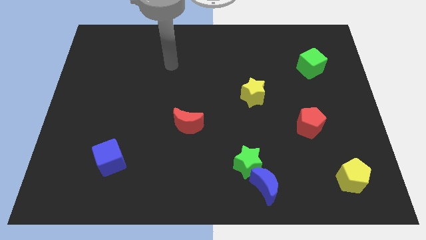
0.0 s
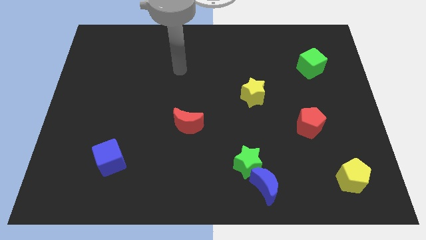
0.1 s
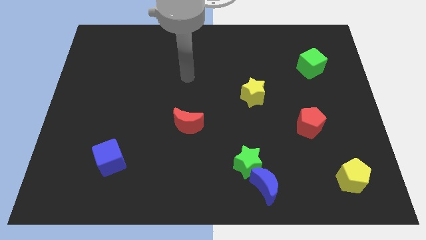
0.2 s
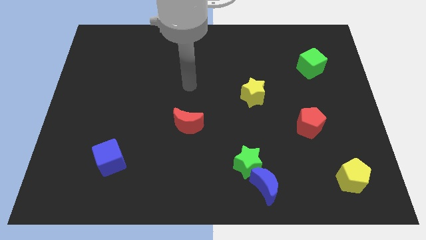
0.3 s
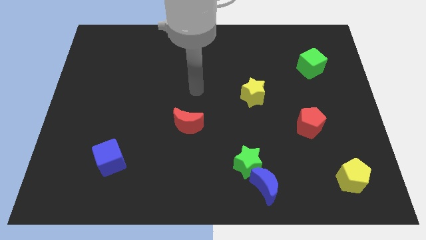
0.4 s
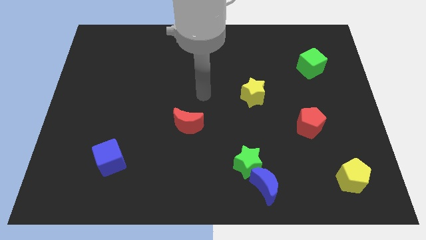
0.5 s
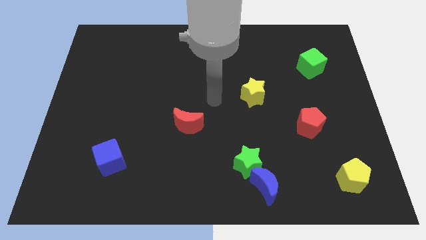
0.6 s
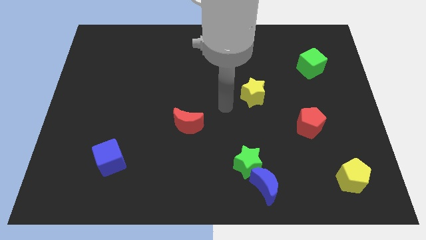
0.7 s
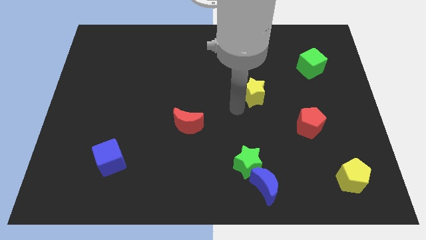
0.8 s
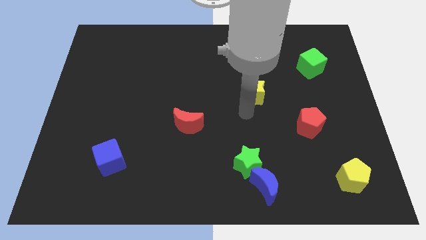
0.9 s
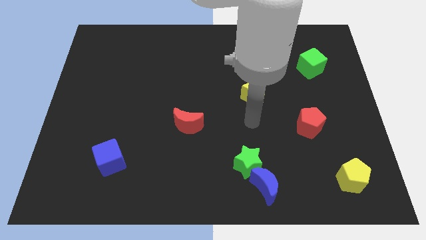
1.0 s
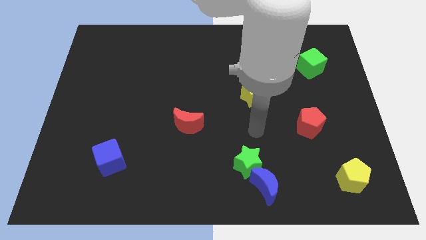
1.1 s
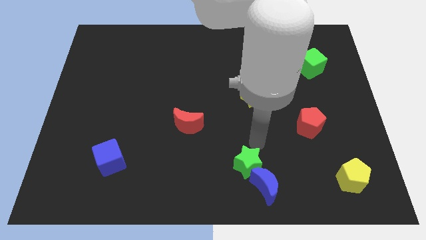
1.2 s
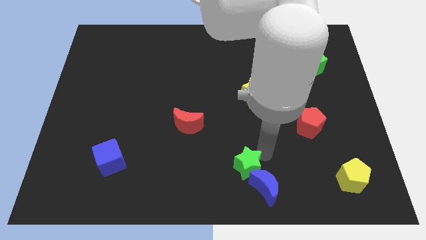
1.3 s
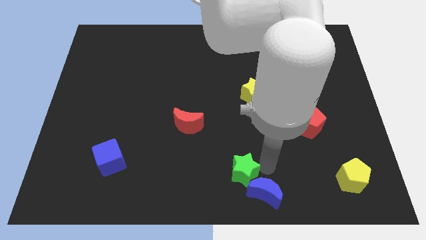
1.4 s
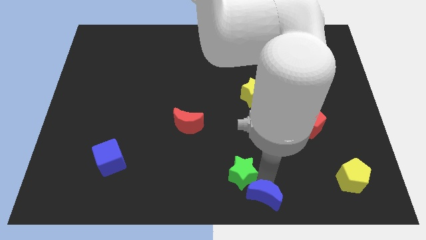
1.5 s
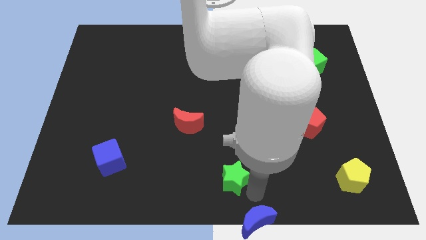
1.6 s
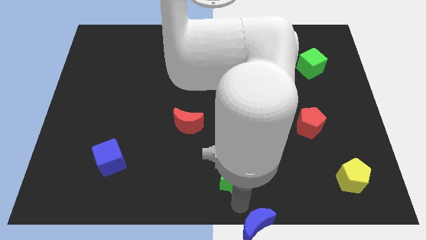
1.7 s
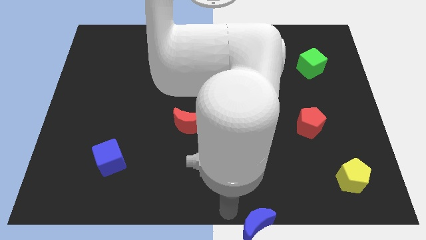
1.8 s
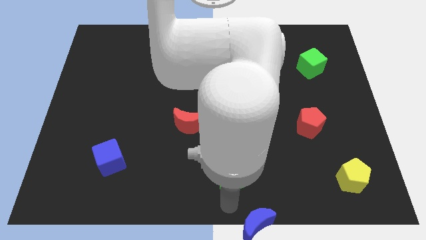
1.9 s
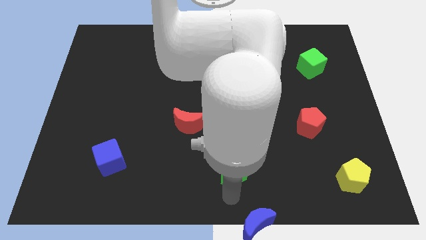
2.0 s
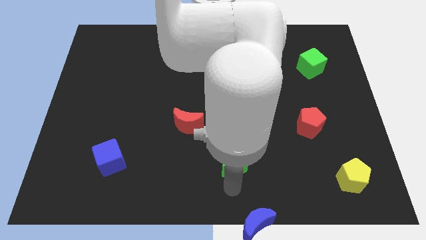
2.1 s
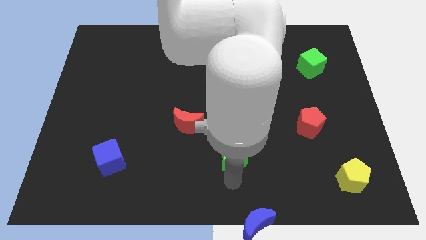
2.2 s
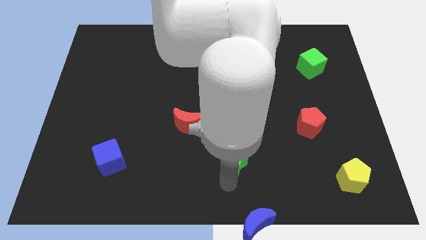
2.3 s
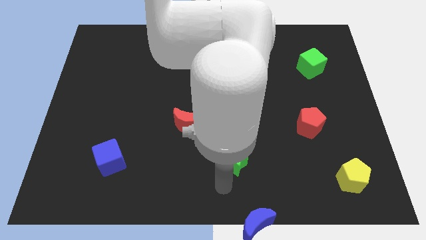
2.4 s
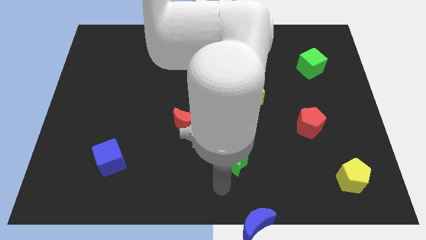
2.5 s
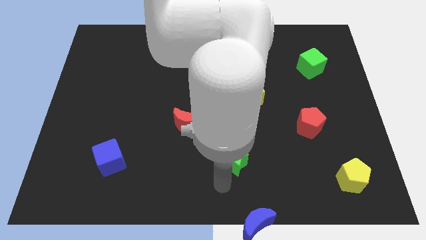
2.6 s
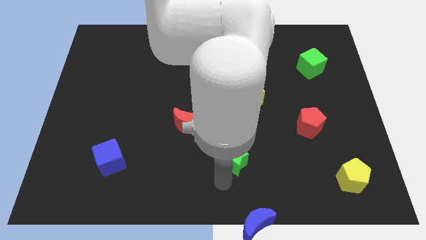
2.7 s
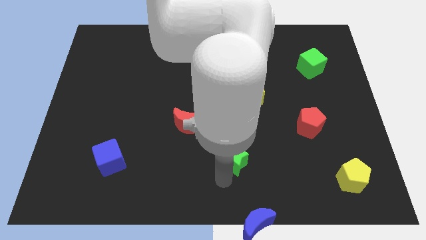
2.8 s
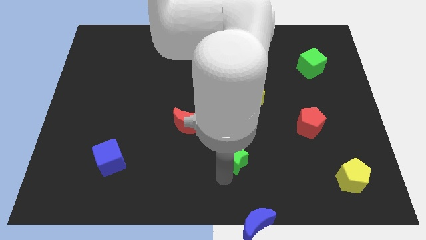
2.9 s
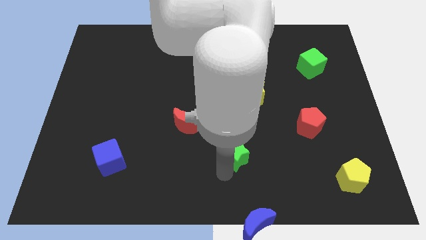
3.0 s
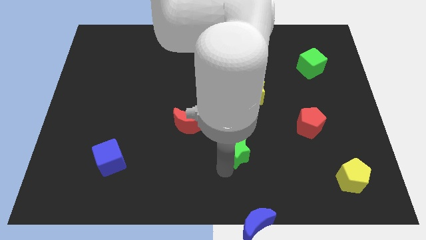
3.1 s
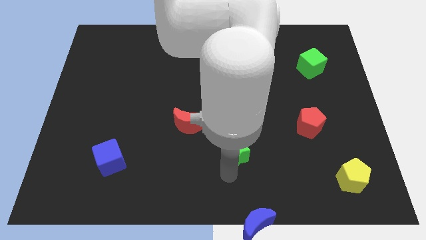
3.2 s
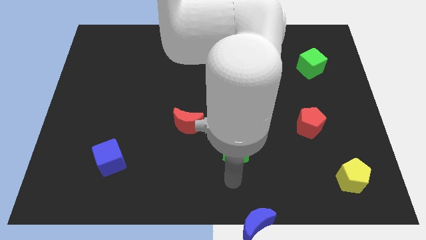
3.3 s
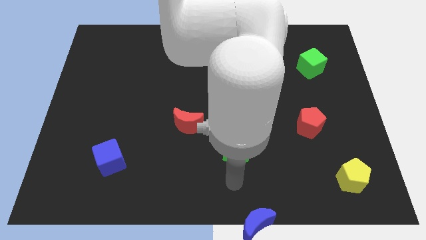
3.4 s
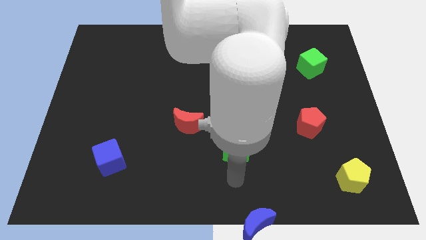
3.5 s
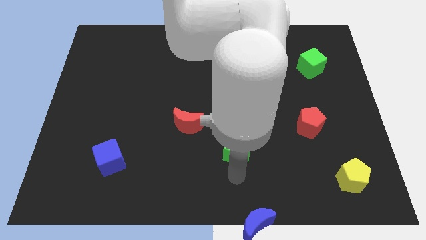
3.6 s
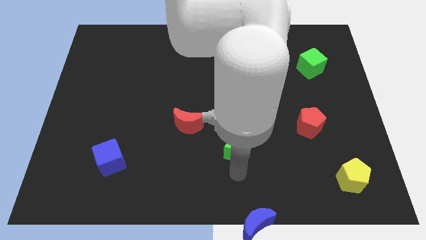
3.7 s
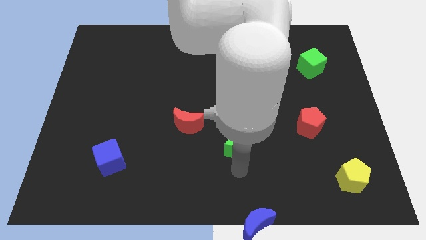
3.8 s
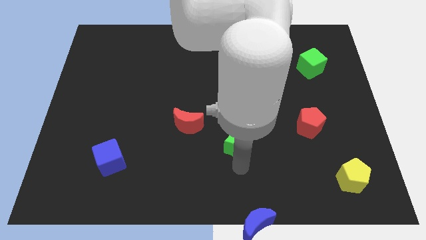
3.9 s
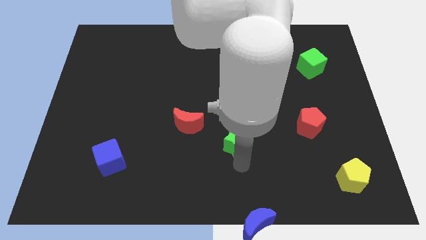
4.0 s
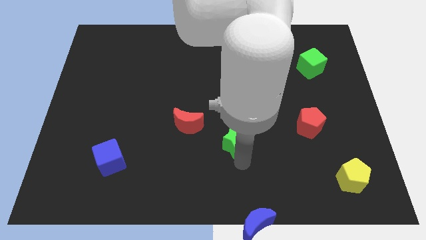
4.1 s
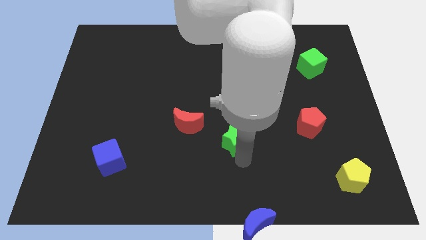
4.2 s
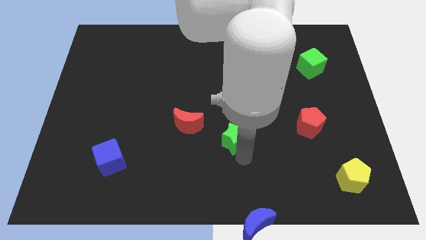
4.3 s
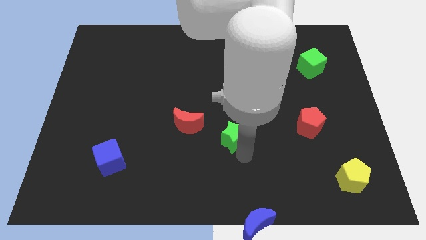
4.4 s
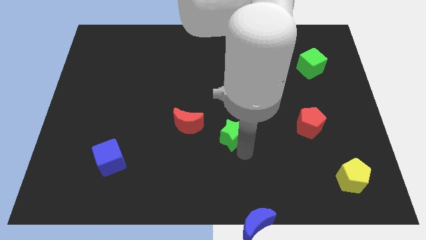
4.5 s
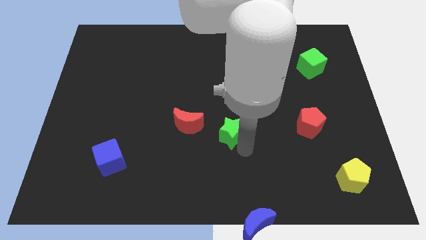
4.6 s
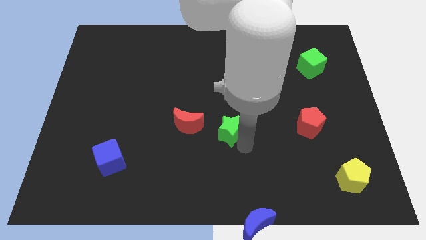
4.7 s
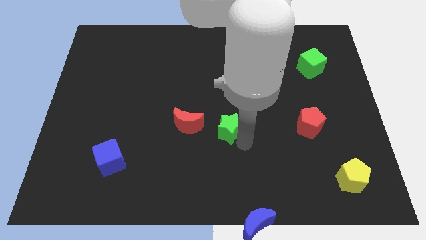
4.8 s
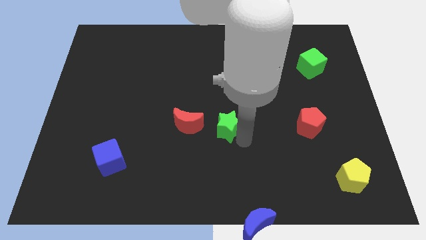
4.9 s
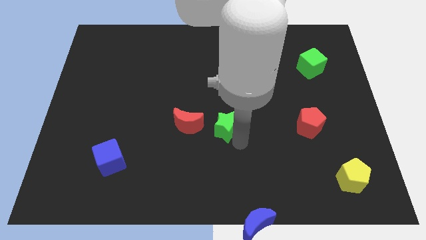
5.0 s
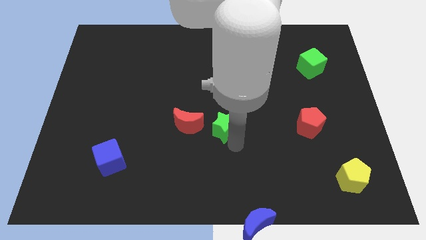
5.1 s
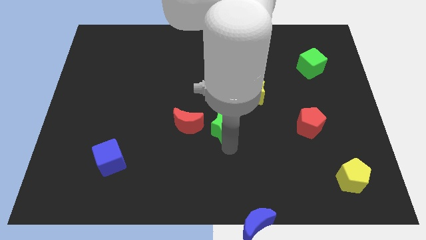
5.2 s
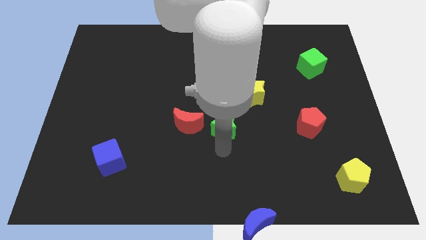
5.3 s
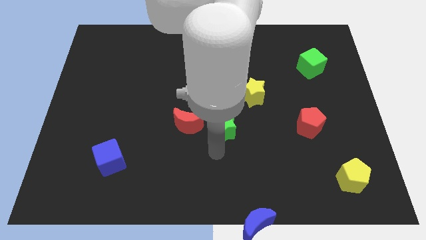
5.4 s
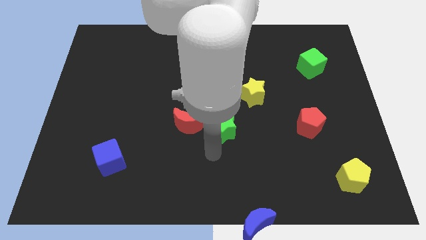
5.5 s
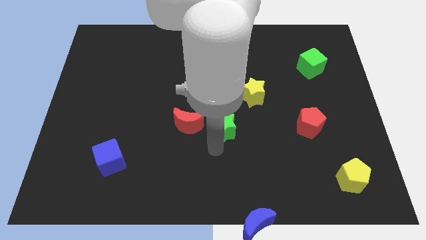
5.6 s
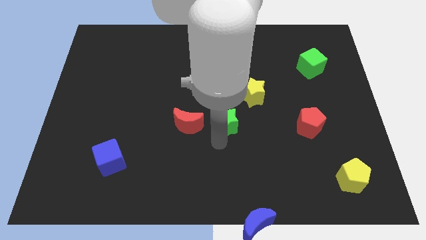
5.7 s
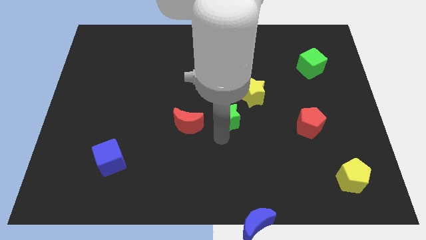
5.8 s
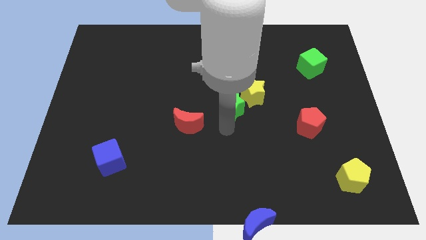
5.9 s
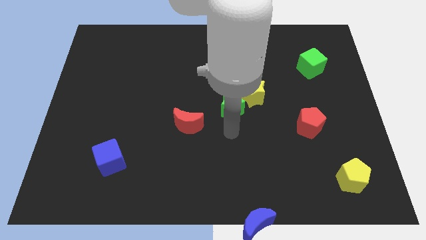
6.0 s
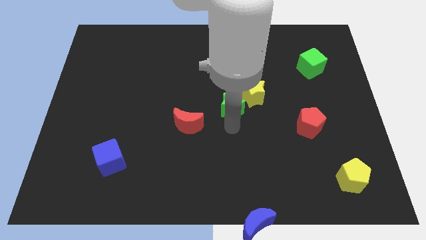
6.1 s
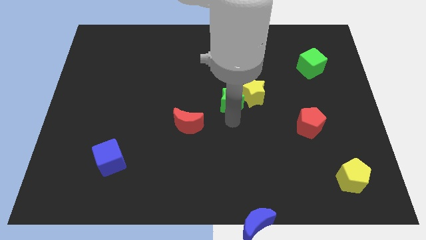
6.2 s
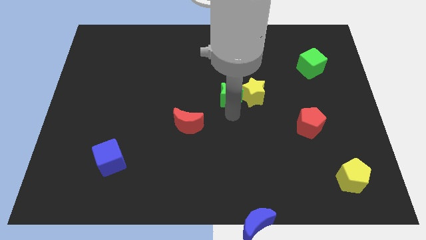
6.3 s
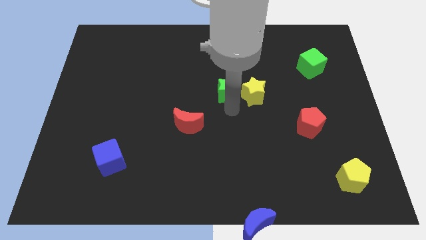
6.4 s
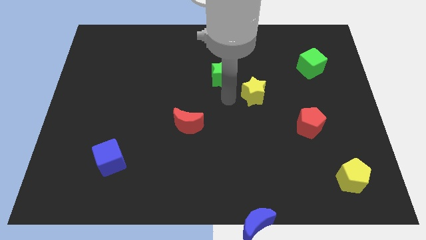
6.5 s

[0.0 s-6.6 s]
move the green star upwards

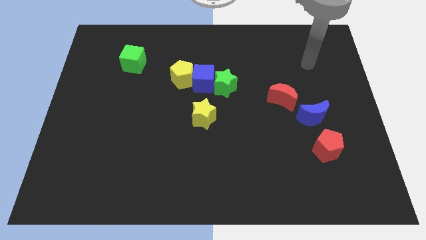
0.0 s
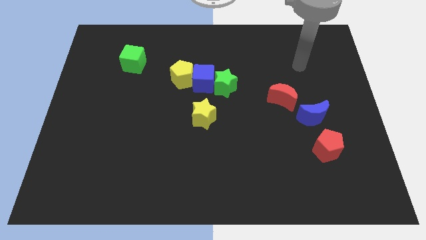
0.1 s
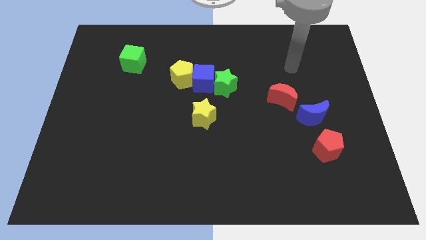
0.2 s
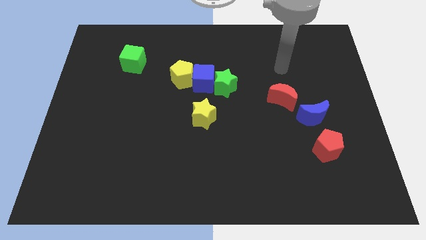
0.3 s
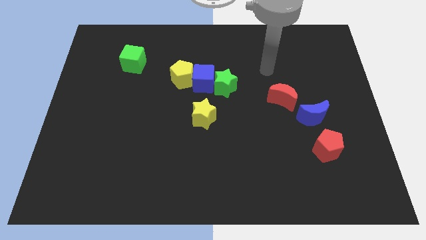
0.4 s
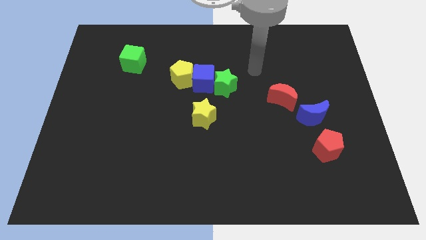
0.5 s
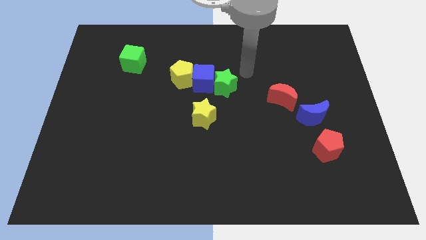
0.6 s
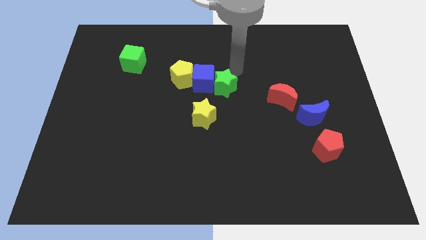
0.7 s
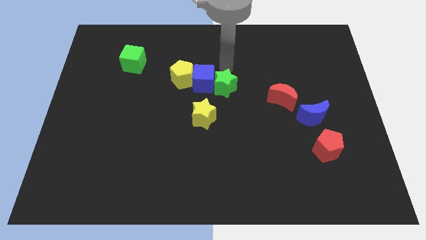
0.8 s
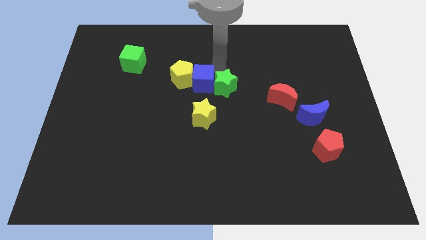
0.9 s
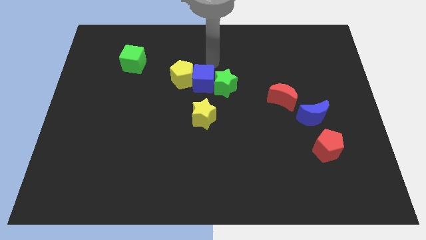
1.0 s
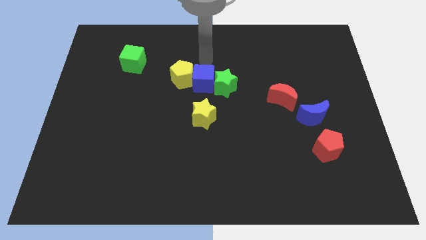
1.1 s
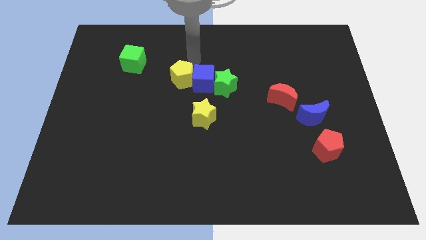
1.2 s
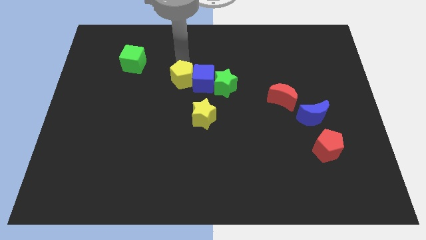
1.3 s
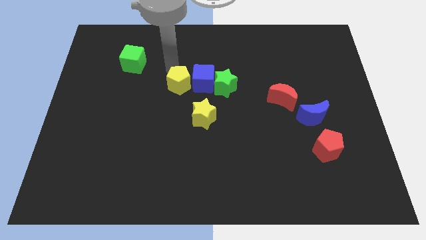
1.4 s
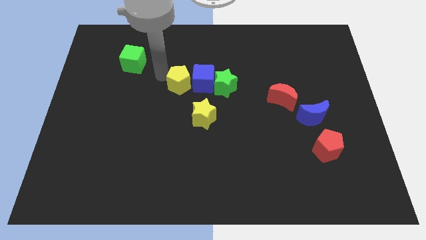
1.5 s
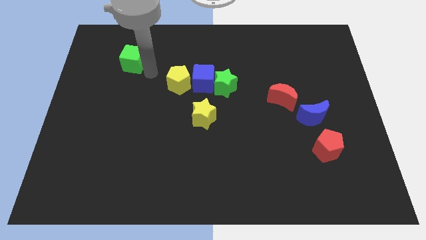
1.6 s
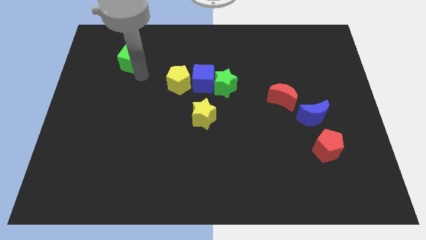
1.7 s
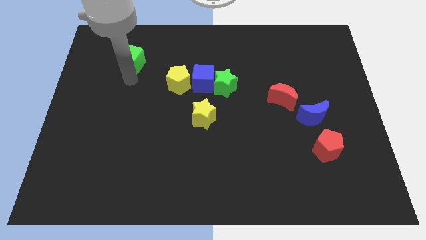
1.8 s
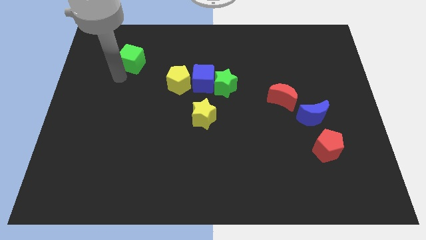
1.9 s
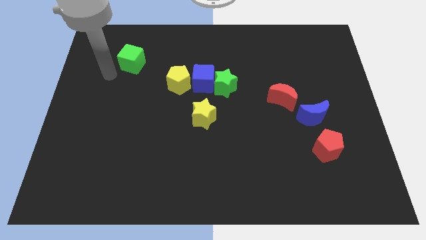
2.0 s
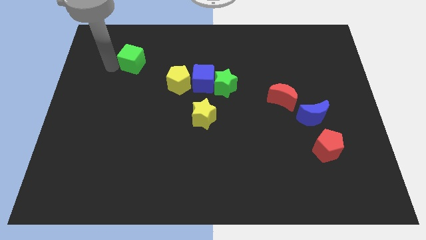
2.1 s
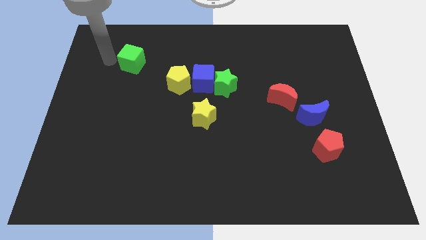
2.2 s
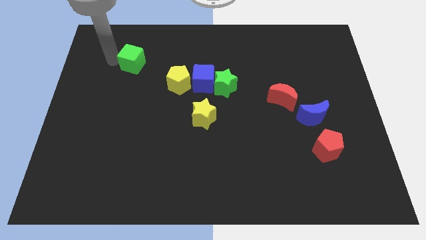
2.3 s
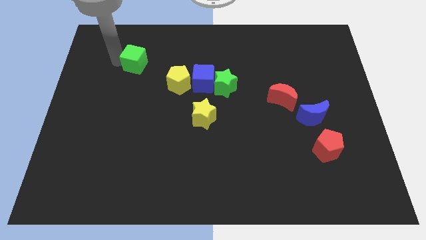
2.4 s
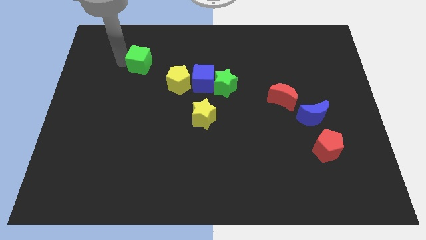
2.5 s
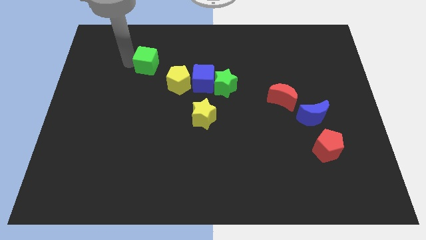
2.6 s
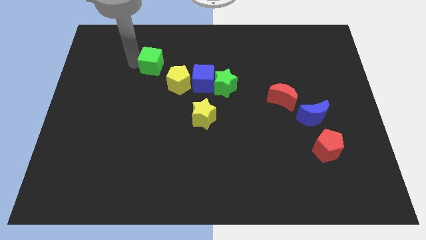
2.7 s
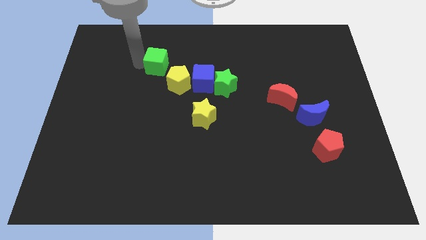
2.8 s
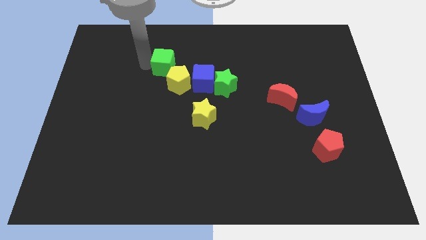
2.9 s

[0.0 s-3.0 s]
push the green cube a bit to the right
